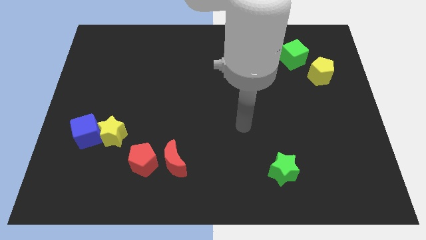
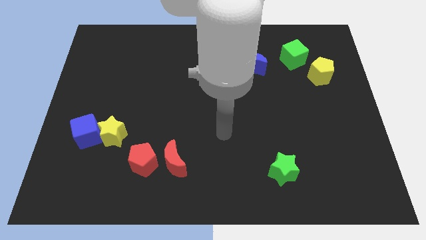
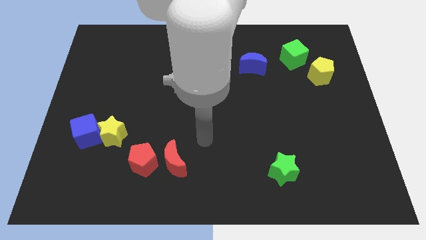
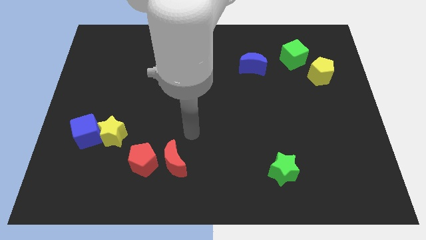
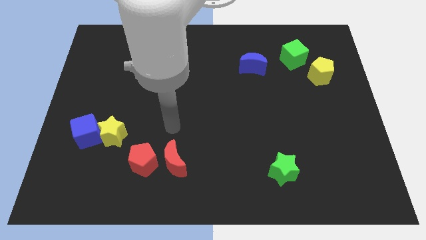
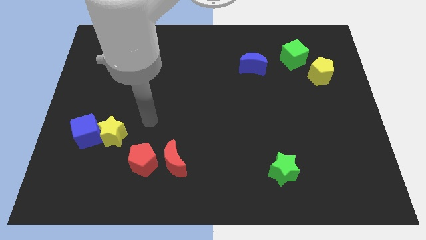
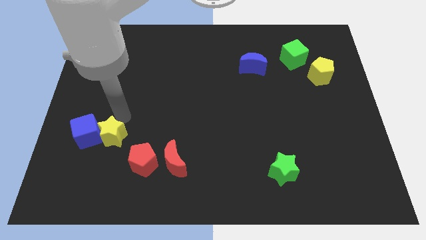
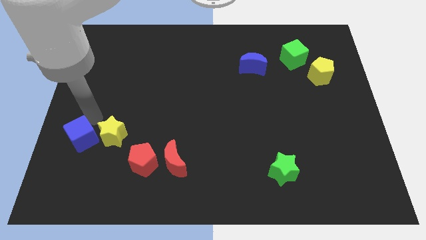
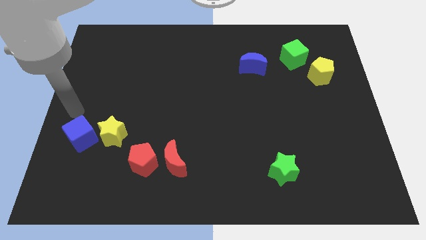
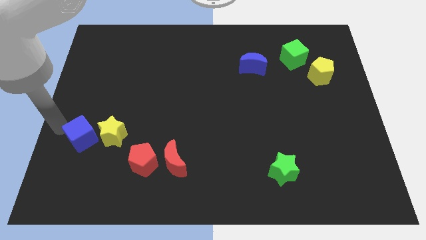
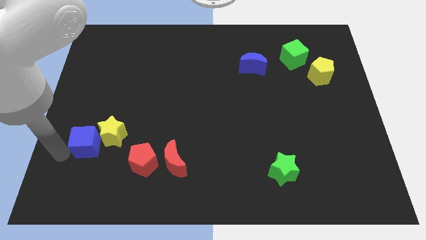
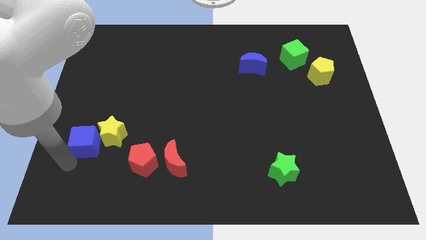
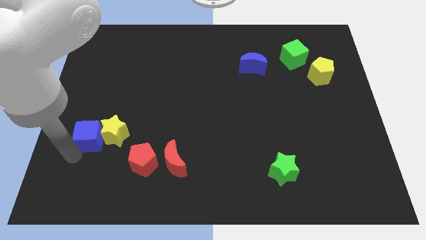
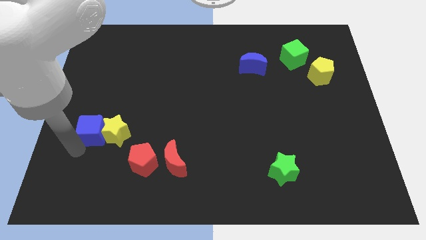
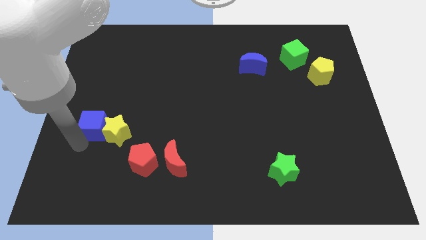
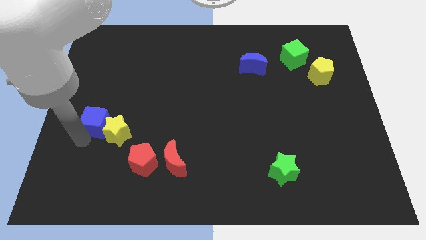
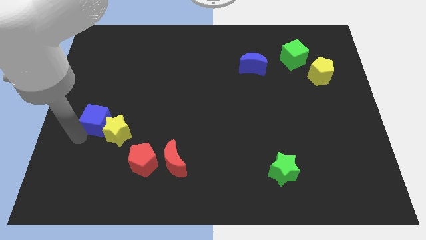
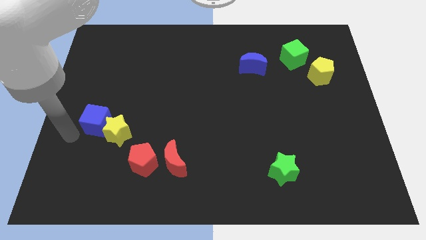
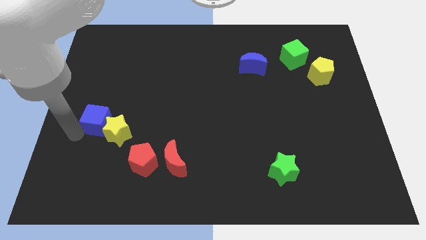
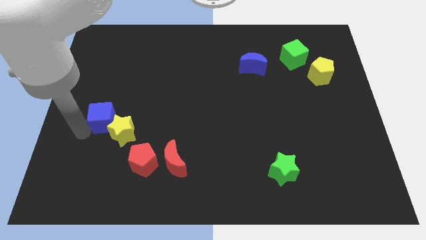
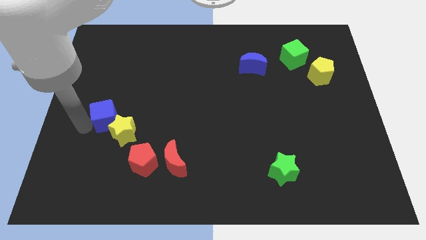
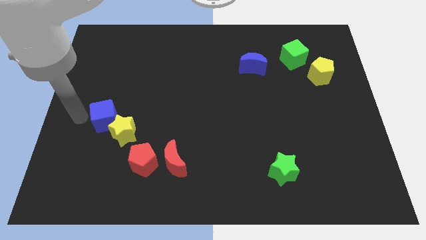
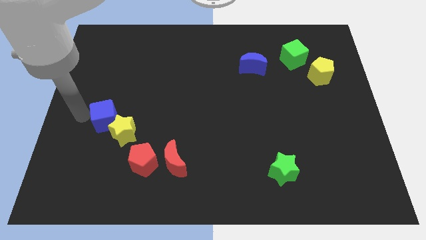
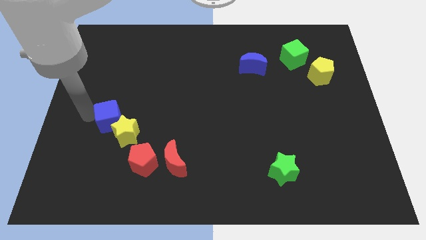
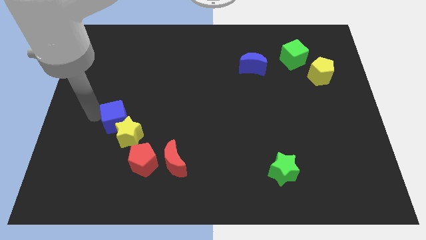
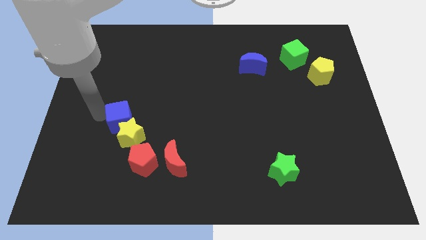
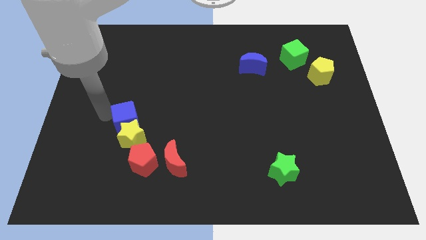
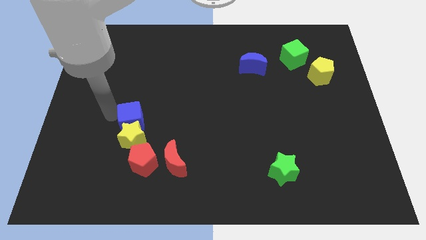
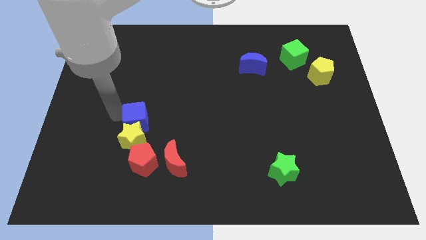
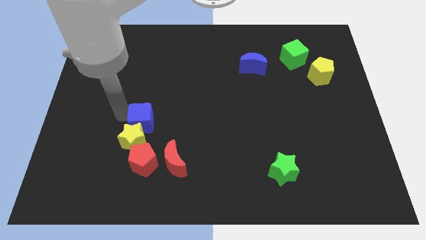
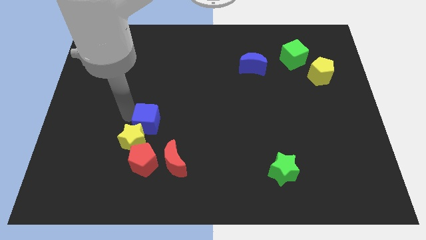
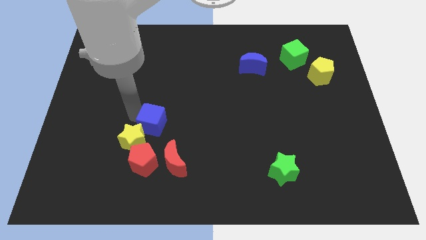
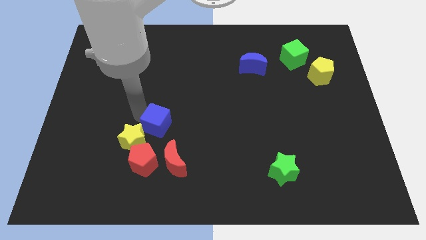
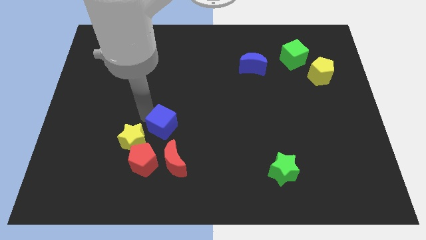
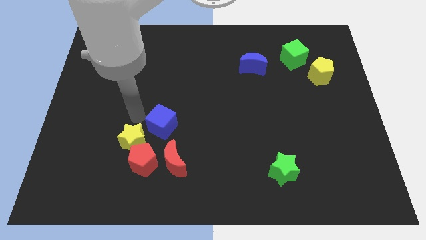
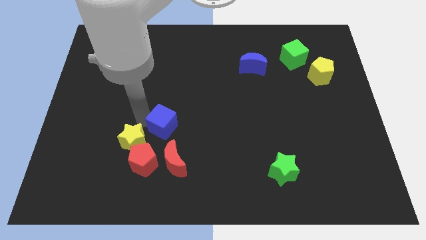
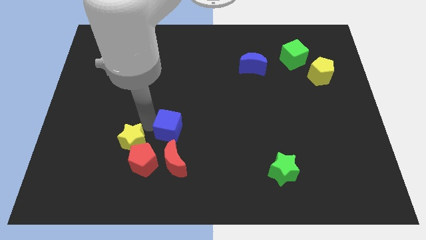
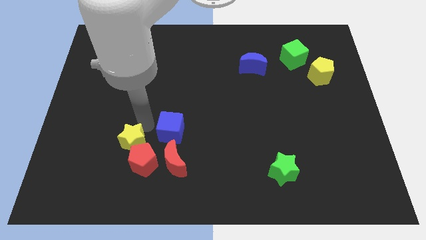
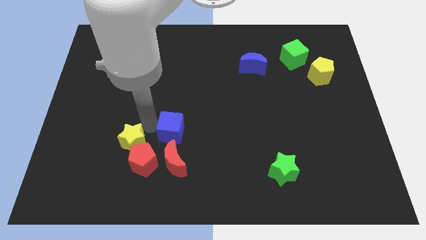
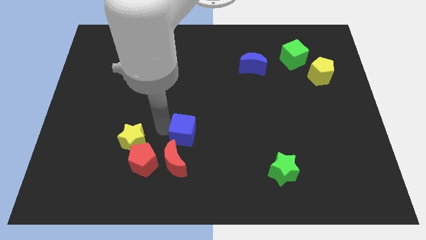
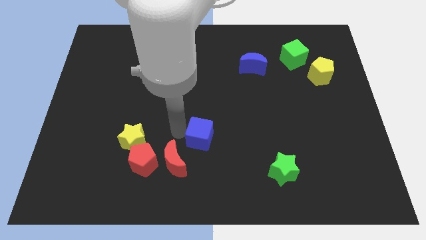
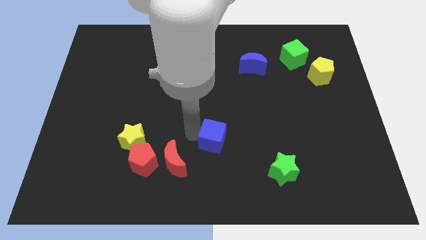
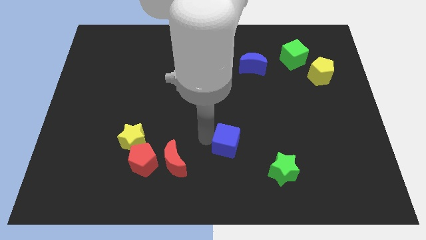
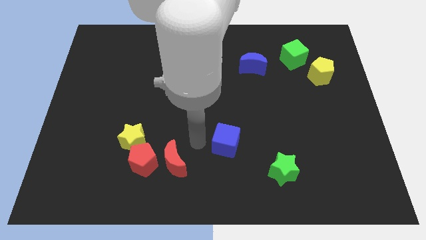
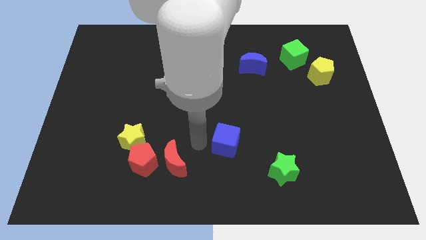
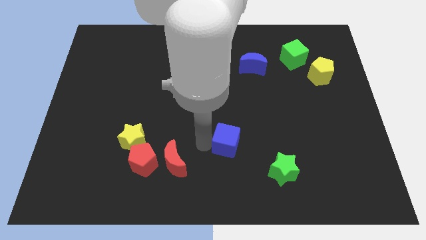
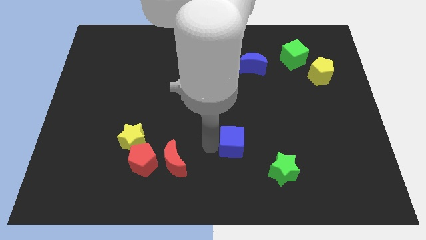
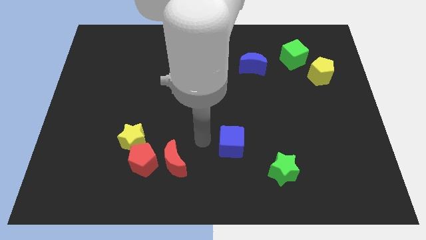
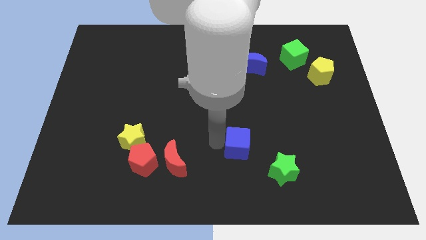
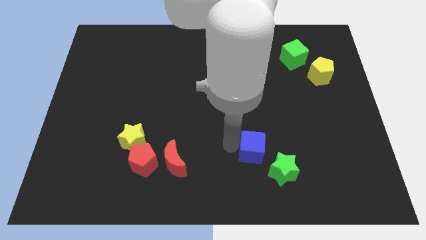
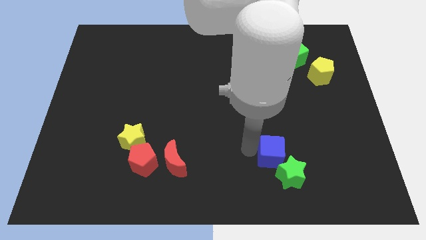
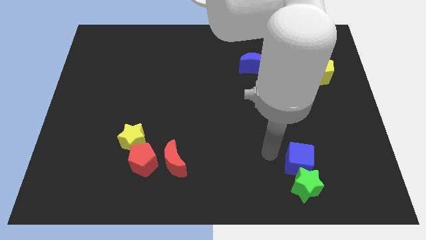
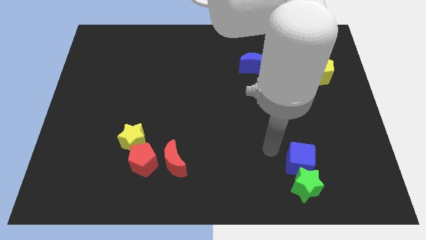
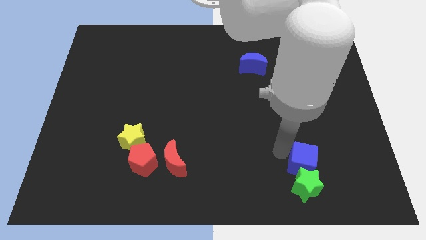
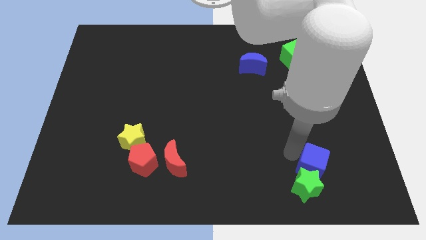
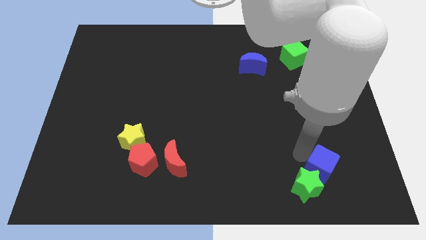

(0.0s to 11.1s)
put the blue cube to the right side of the green star

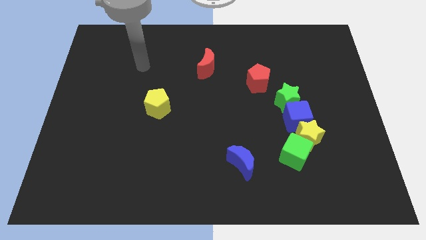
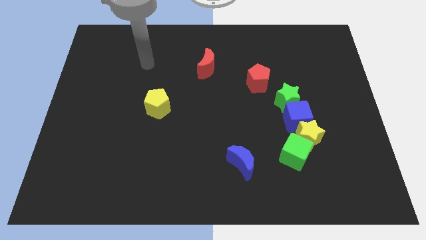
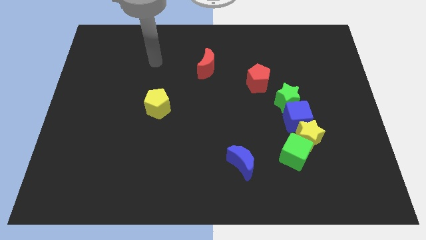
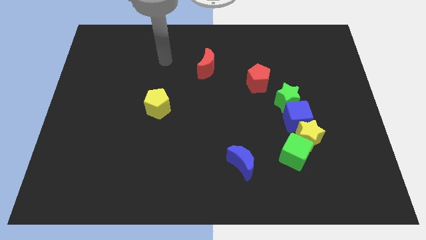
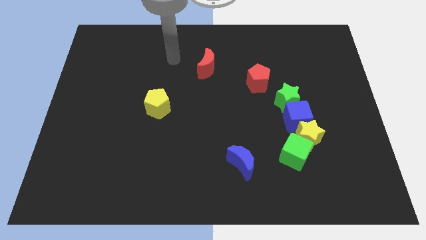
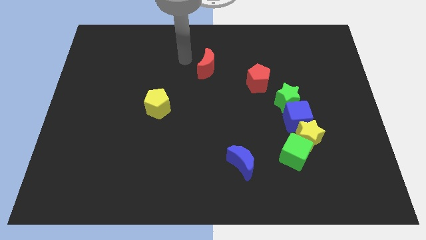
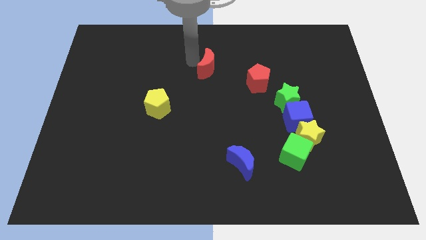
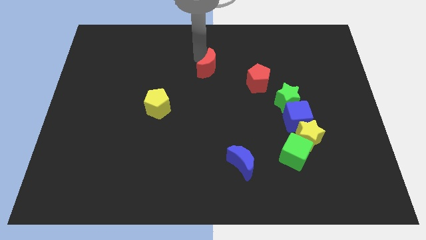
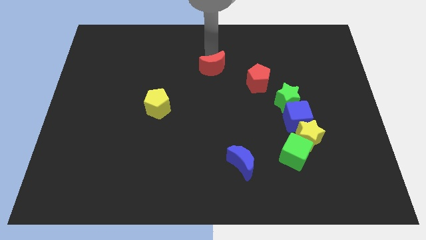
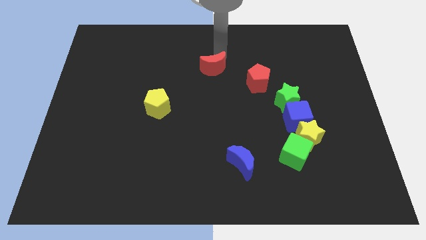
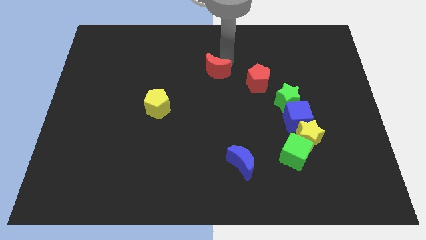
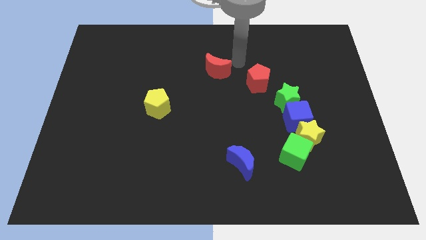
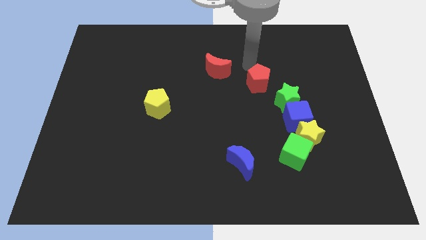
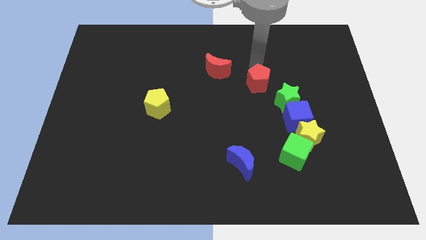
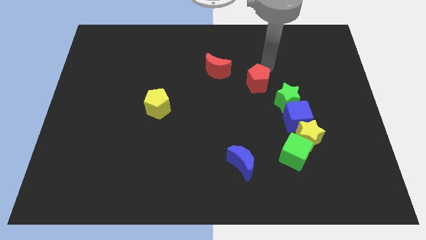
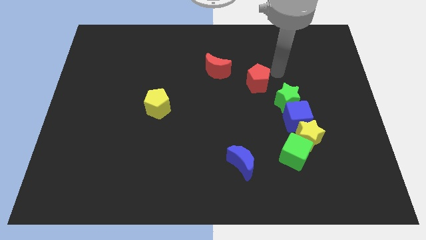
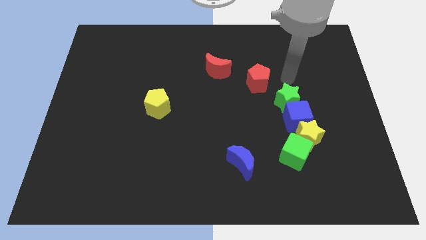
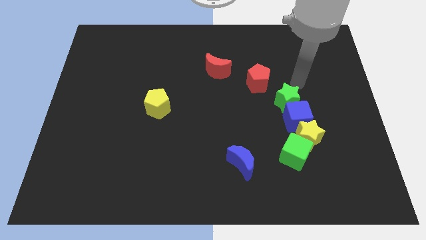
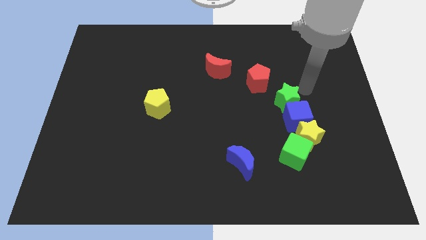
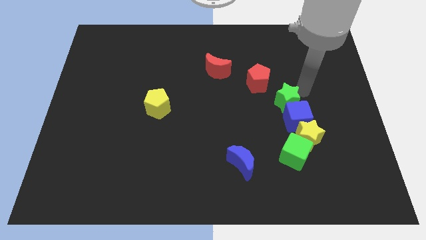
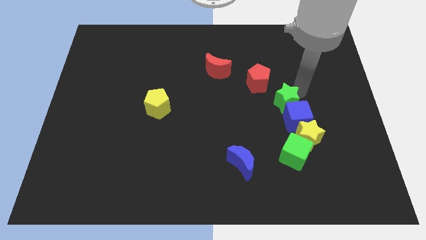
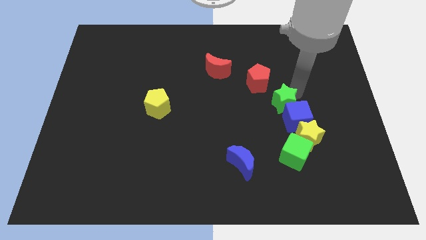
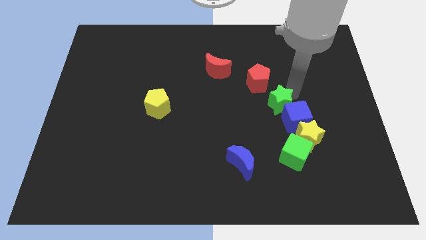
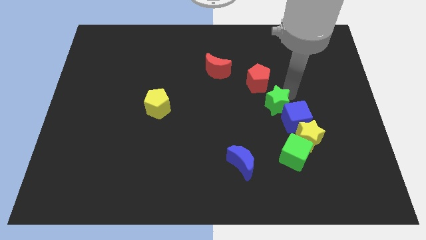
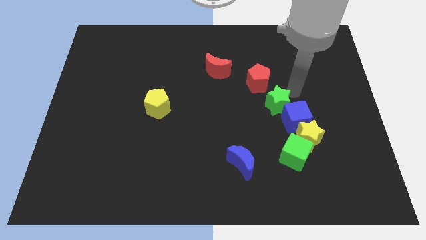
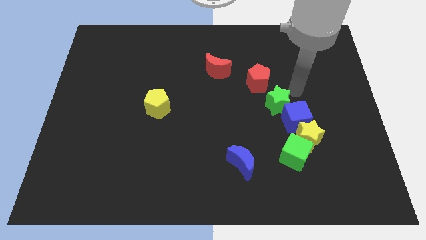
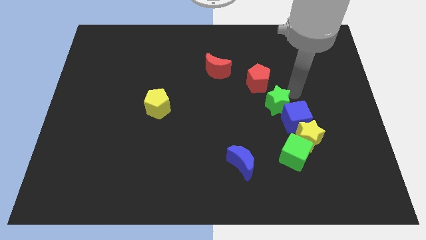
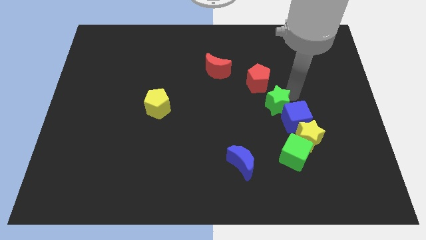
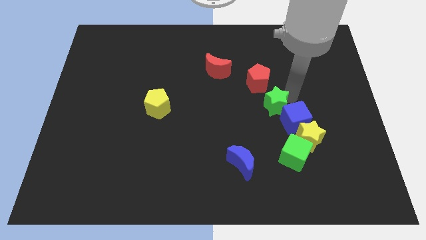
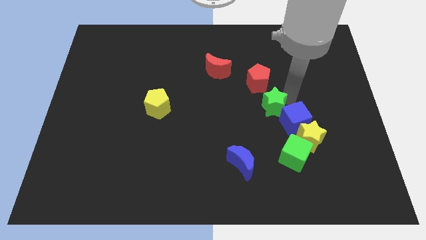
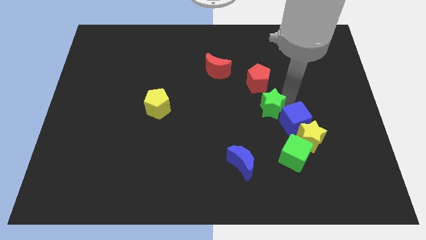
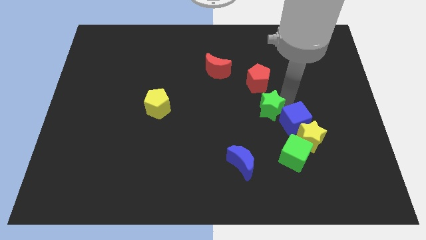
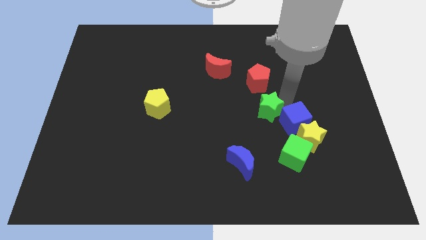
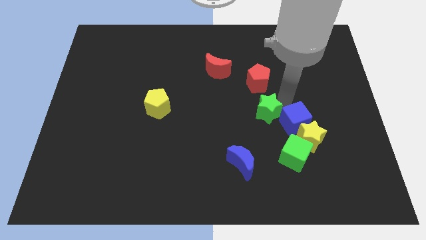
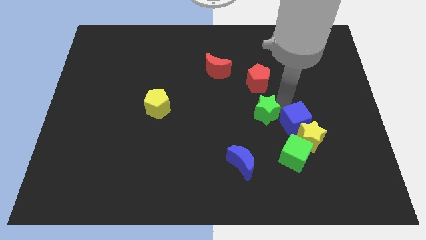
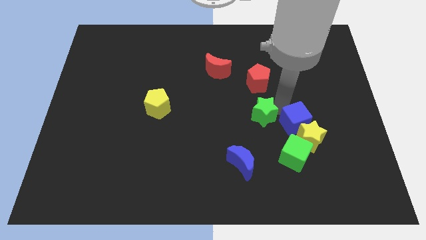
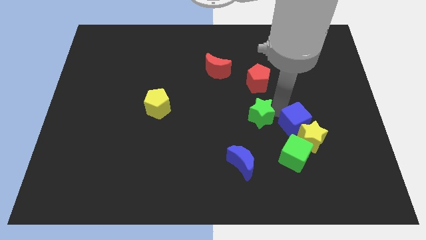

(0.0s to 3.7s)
push the green star to the top of the blue moon
